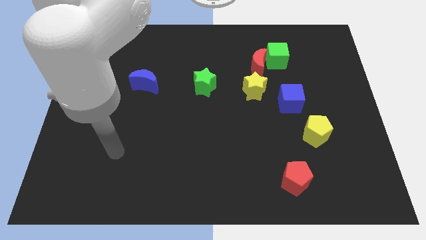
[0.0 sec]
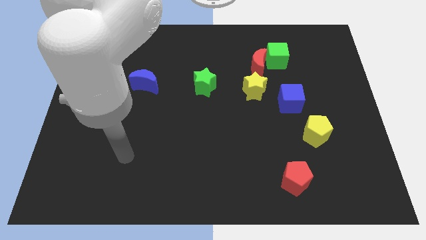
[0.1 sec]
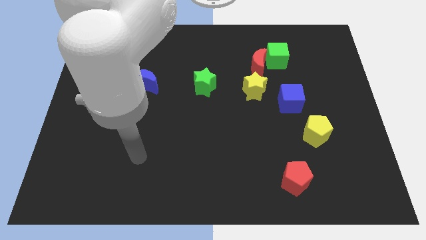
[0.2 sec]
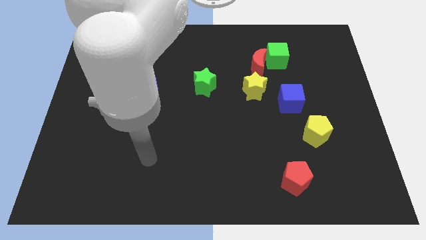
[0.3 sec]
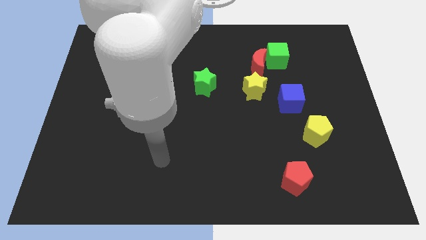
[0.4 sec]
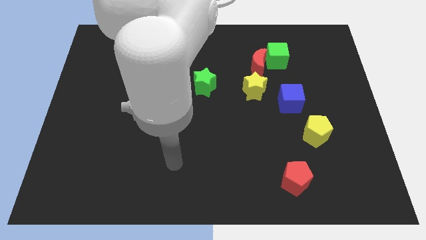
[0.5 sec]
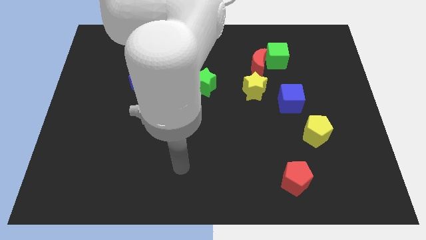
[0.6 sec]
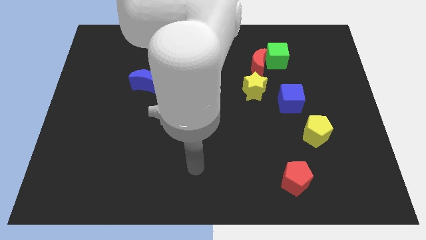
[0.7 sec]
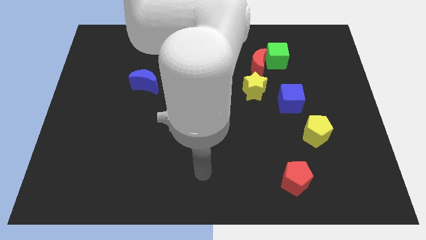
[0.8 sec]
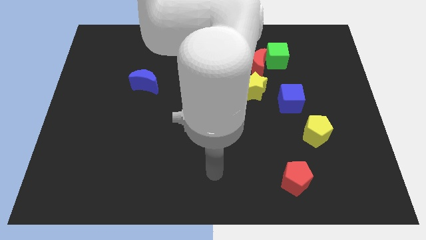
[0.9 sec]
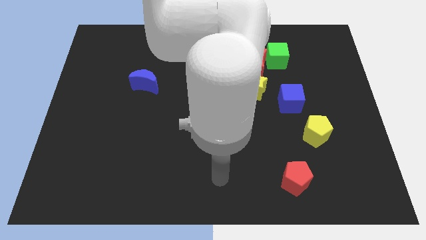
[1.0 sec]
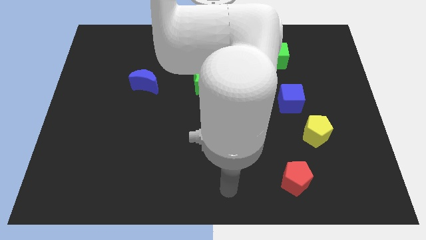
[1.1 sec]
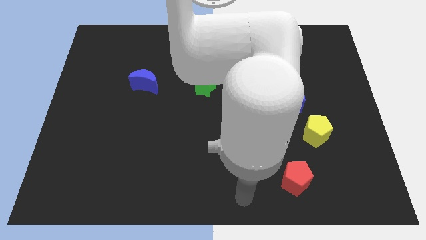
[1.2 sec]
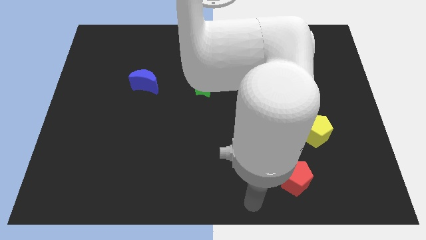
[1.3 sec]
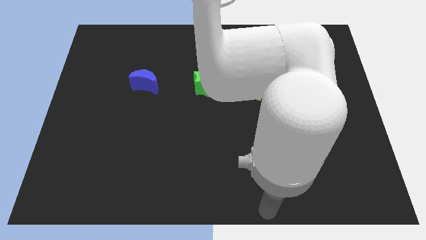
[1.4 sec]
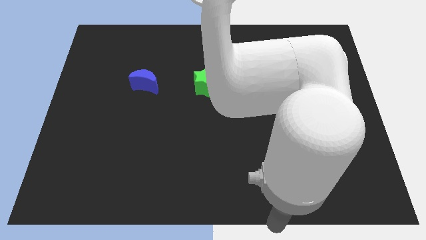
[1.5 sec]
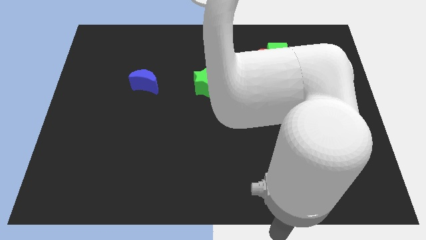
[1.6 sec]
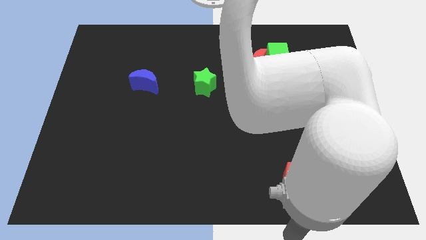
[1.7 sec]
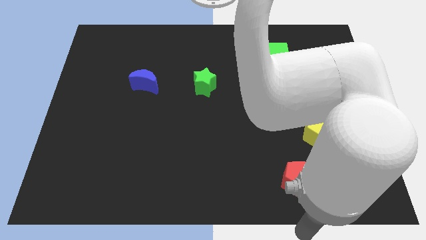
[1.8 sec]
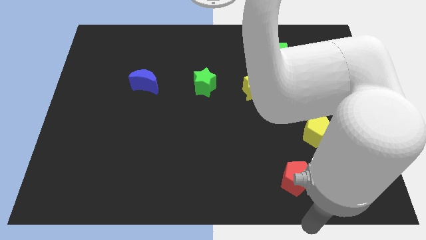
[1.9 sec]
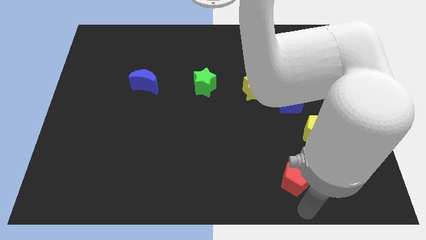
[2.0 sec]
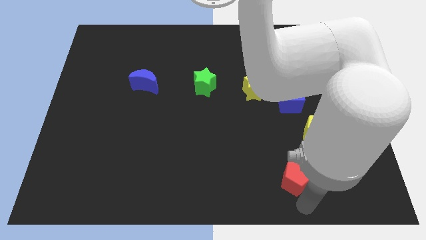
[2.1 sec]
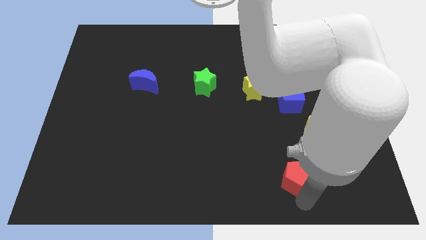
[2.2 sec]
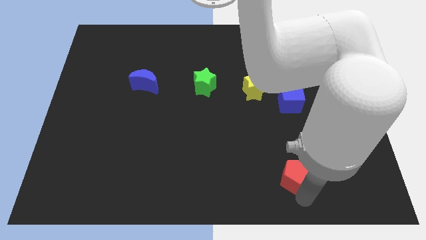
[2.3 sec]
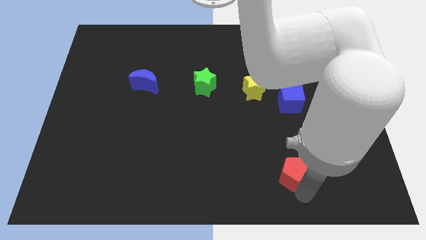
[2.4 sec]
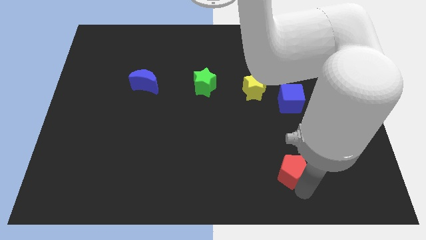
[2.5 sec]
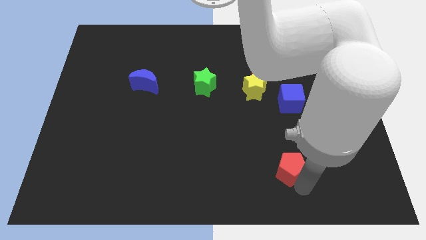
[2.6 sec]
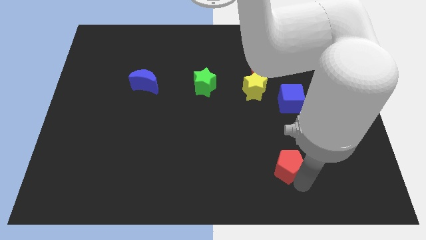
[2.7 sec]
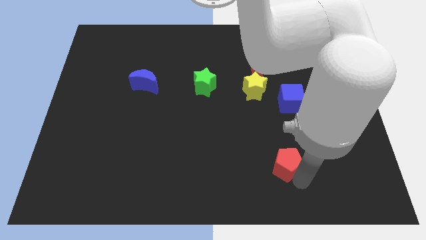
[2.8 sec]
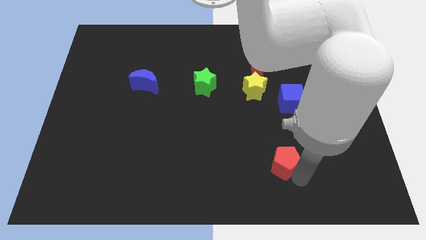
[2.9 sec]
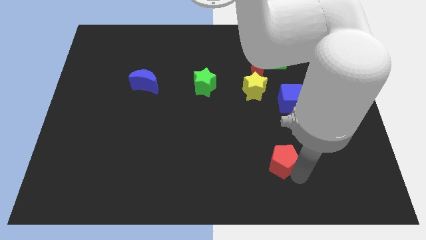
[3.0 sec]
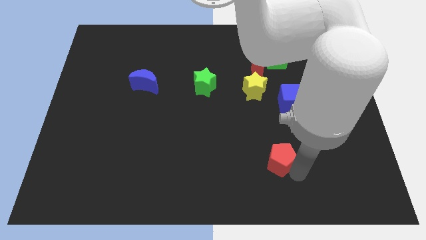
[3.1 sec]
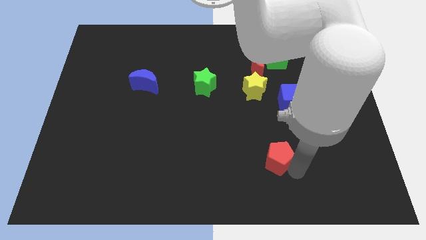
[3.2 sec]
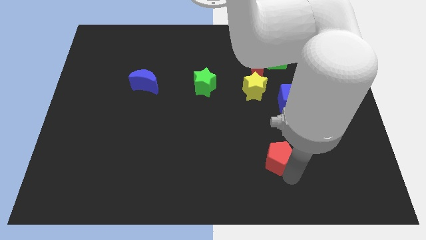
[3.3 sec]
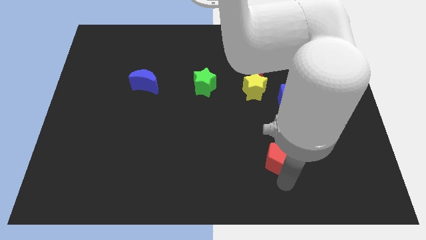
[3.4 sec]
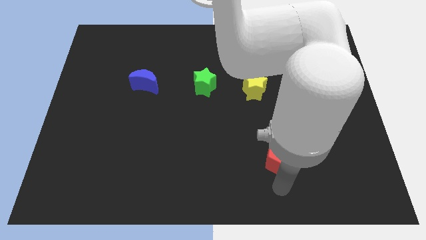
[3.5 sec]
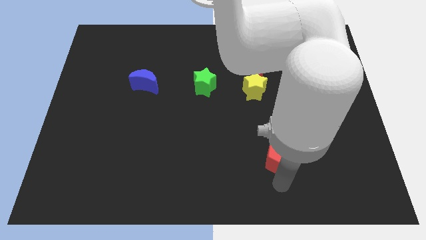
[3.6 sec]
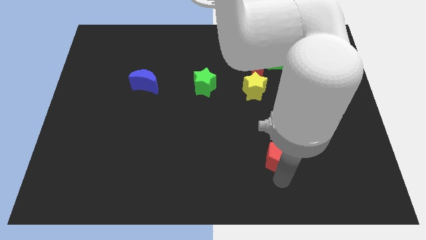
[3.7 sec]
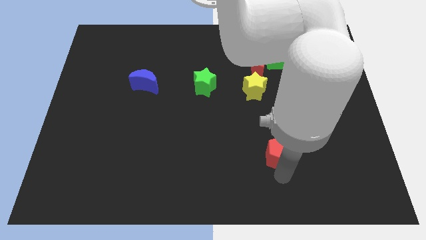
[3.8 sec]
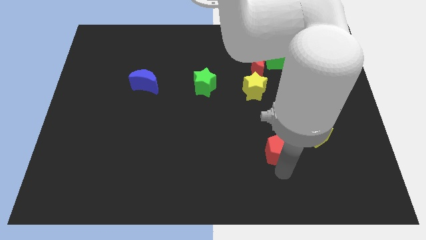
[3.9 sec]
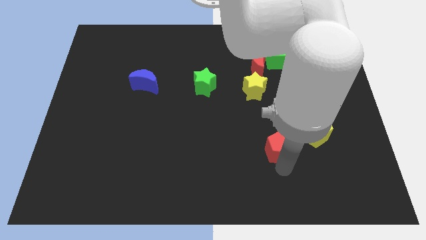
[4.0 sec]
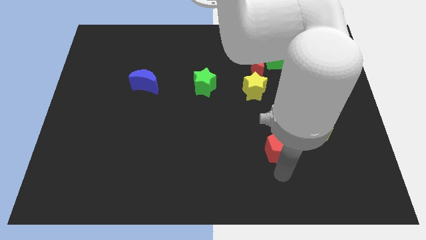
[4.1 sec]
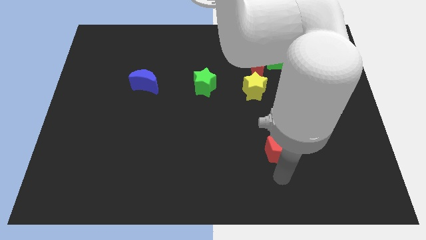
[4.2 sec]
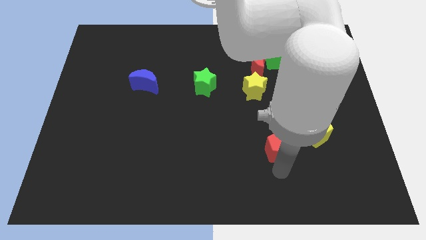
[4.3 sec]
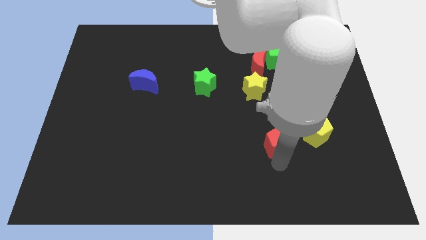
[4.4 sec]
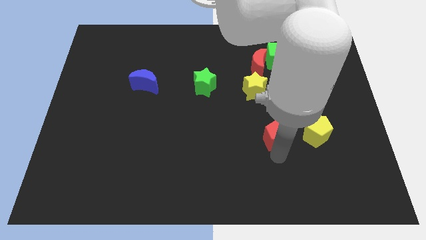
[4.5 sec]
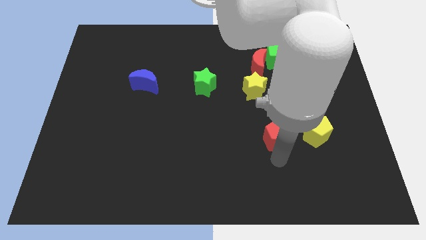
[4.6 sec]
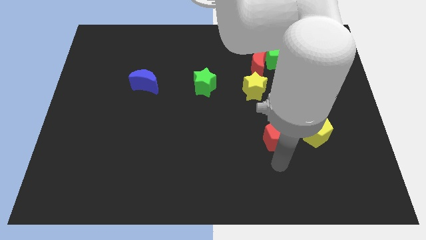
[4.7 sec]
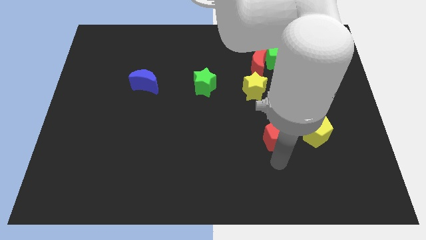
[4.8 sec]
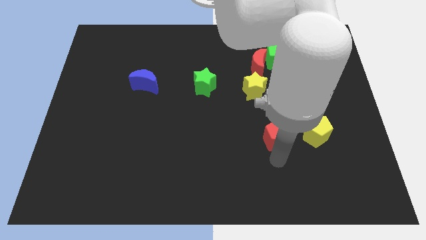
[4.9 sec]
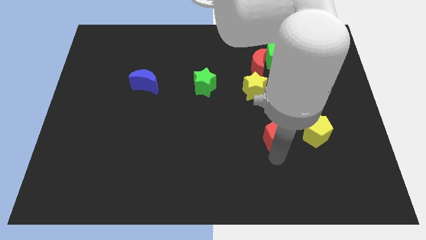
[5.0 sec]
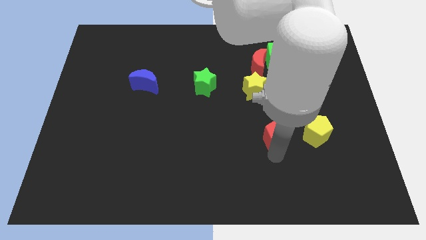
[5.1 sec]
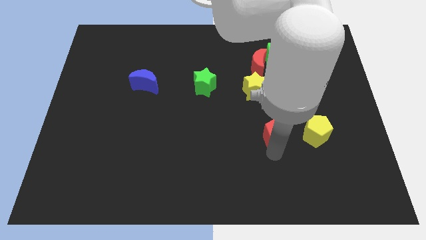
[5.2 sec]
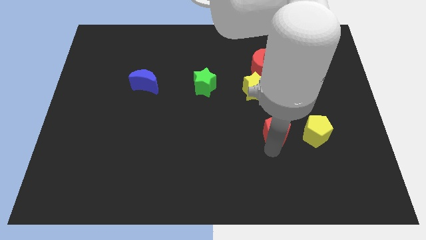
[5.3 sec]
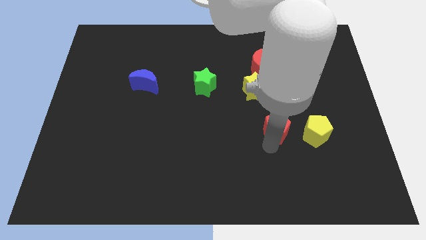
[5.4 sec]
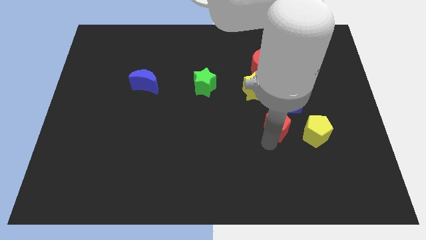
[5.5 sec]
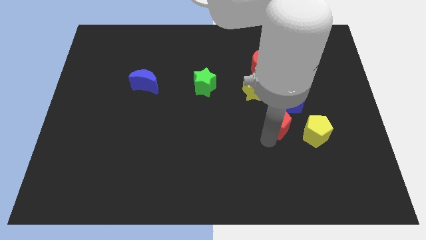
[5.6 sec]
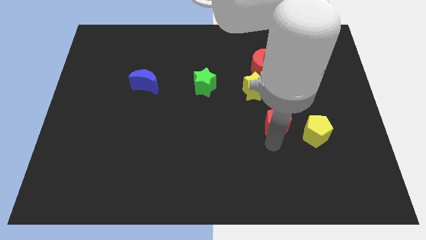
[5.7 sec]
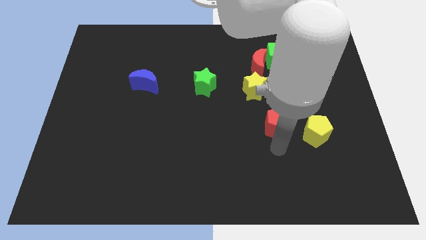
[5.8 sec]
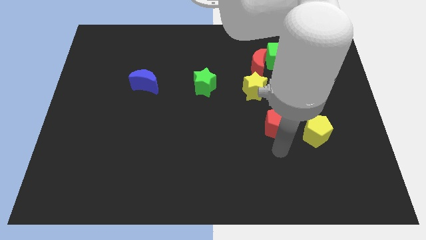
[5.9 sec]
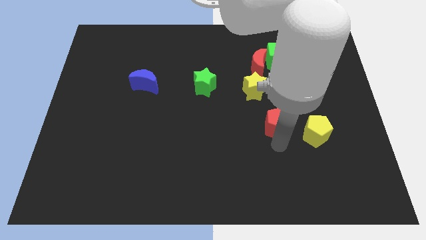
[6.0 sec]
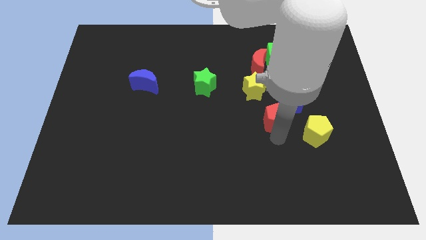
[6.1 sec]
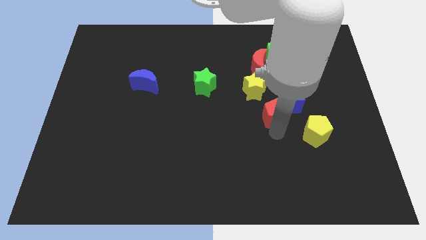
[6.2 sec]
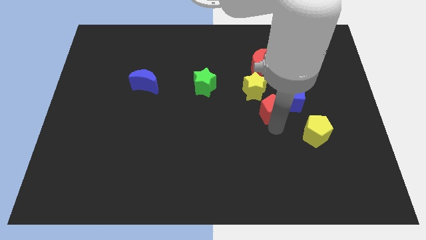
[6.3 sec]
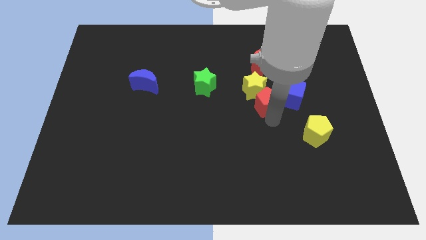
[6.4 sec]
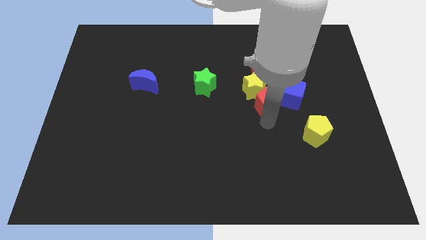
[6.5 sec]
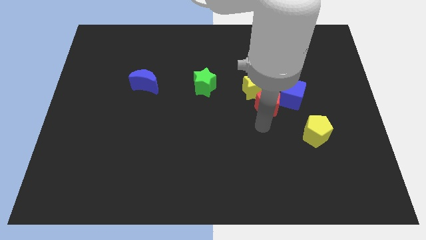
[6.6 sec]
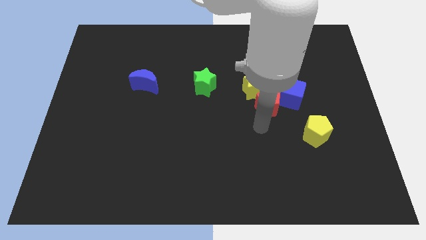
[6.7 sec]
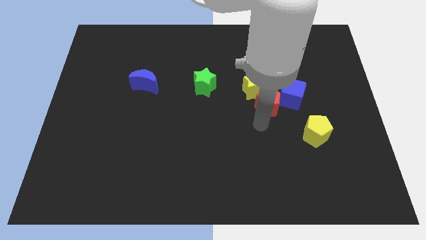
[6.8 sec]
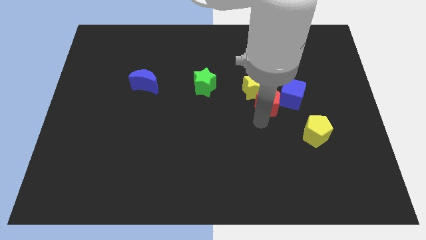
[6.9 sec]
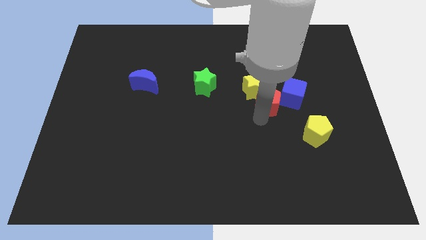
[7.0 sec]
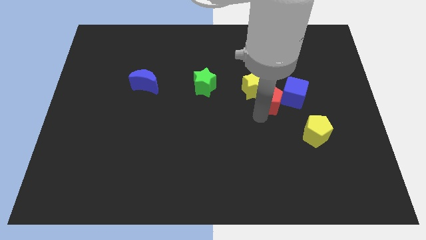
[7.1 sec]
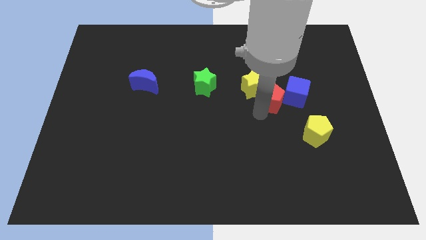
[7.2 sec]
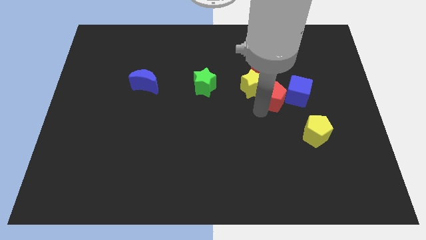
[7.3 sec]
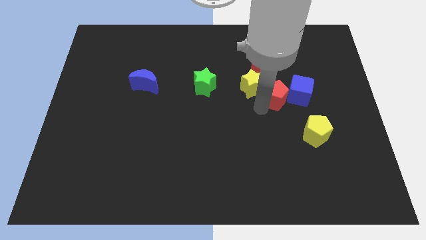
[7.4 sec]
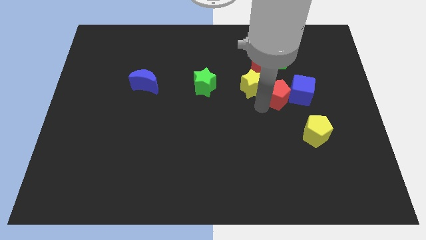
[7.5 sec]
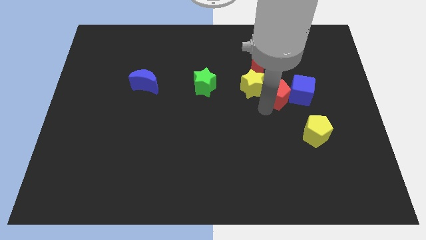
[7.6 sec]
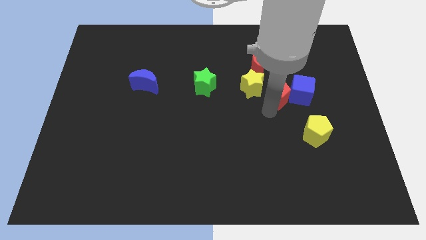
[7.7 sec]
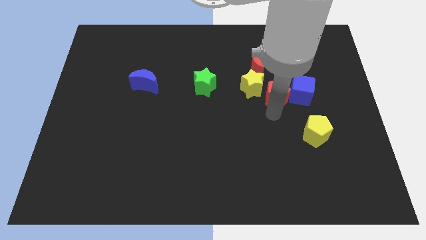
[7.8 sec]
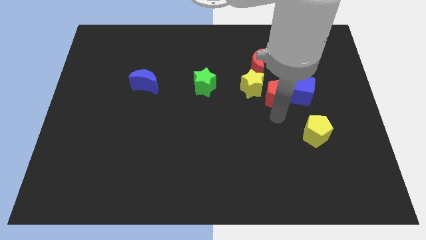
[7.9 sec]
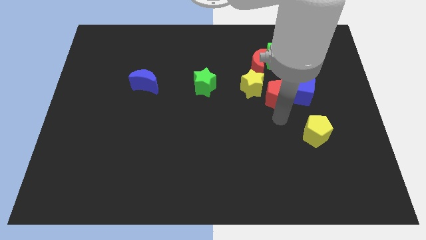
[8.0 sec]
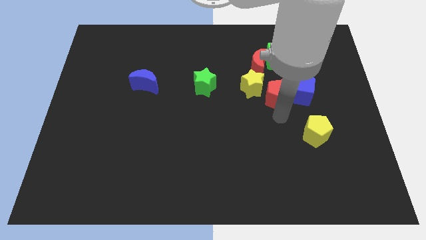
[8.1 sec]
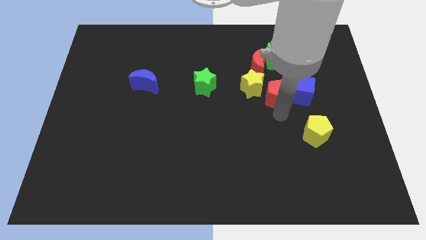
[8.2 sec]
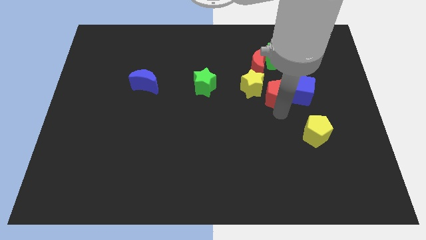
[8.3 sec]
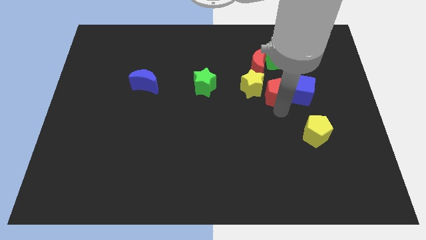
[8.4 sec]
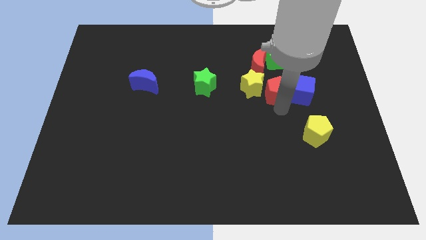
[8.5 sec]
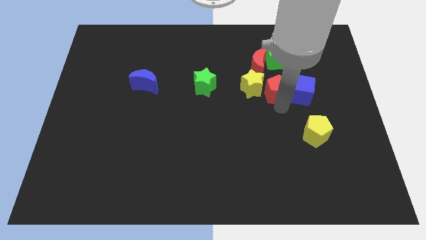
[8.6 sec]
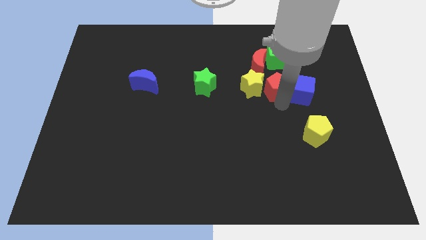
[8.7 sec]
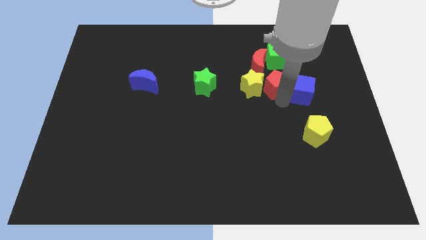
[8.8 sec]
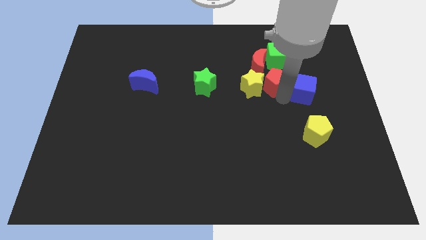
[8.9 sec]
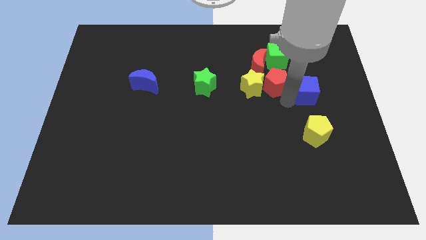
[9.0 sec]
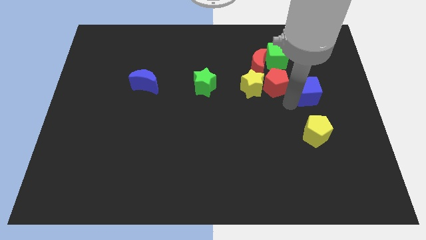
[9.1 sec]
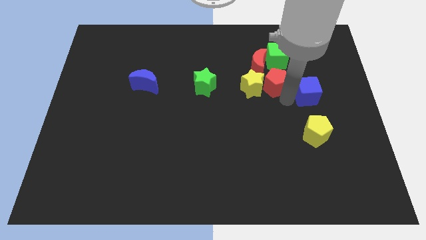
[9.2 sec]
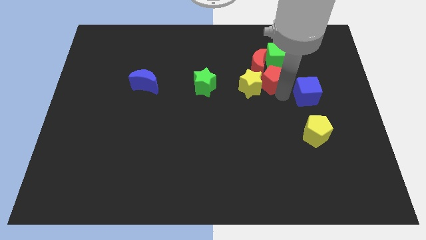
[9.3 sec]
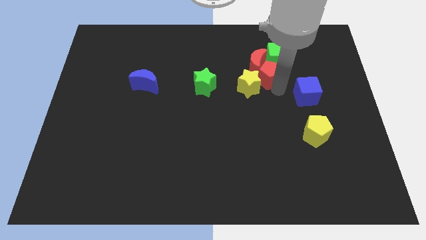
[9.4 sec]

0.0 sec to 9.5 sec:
put the red pentagon next to the red moon
